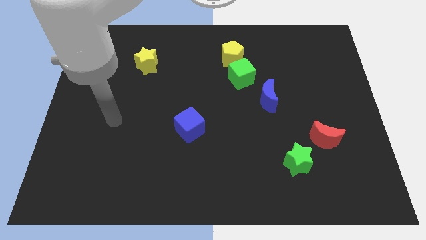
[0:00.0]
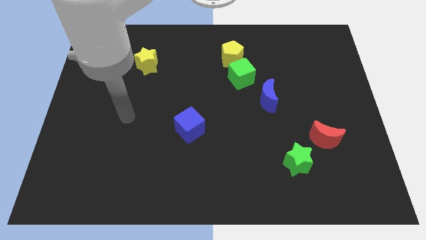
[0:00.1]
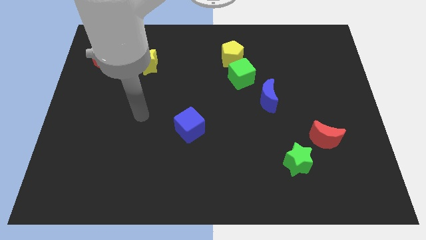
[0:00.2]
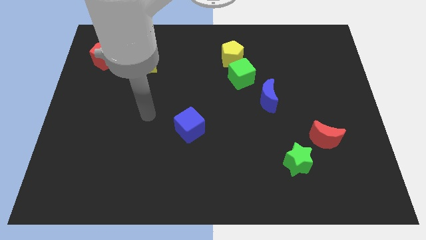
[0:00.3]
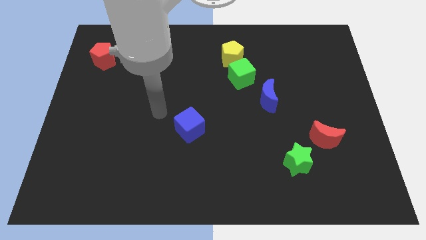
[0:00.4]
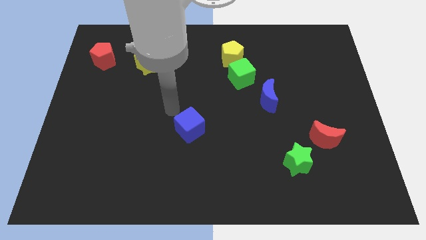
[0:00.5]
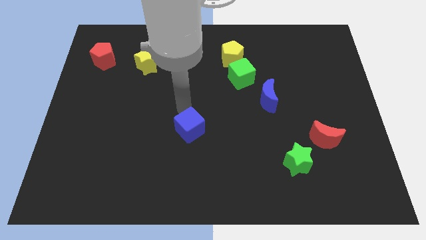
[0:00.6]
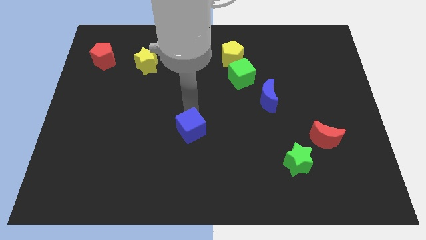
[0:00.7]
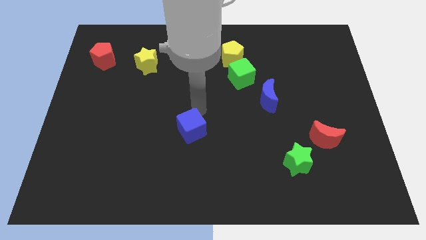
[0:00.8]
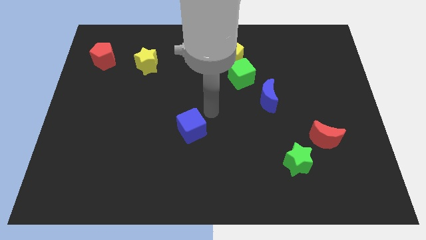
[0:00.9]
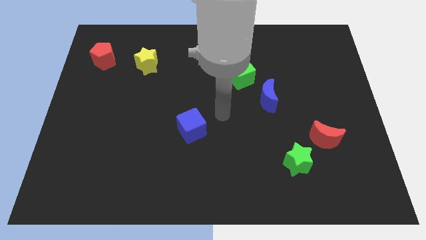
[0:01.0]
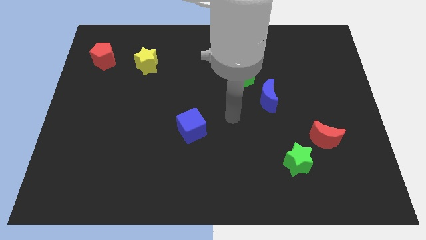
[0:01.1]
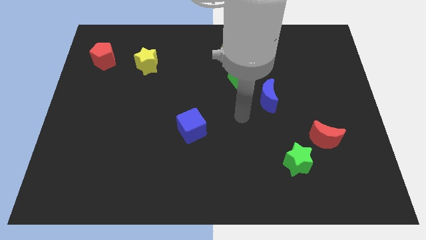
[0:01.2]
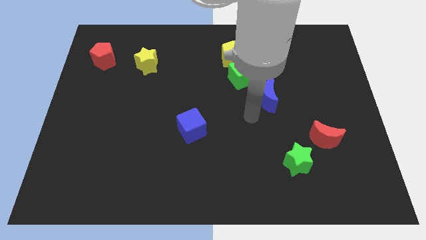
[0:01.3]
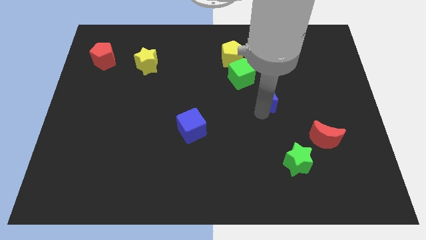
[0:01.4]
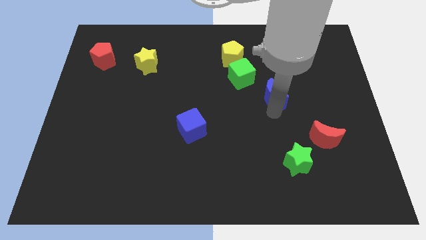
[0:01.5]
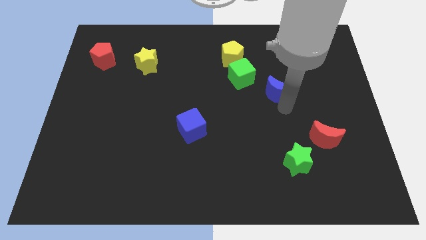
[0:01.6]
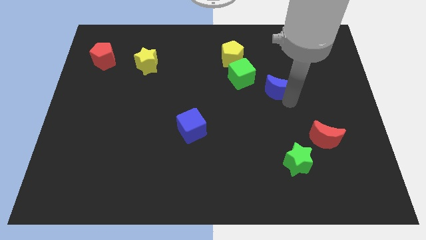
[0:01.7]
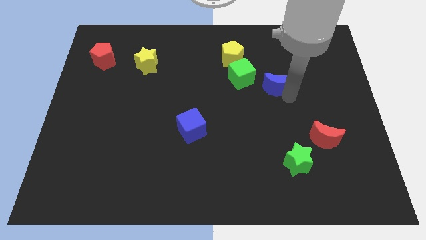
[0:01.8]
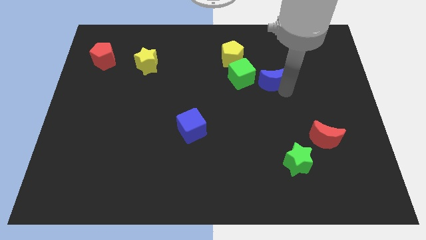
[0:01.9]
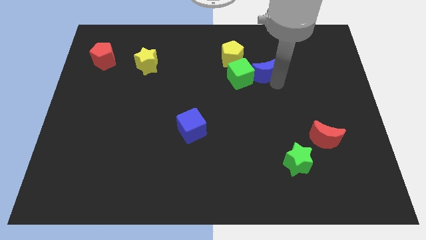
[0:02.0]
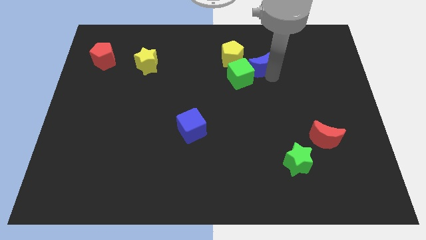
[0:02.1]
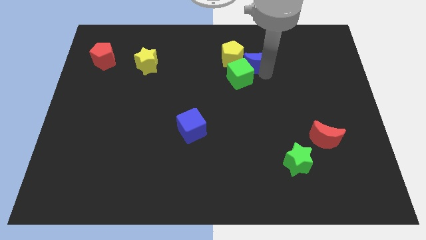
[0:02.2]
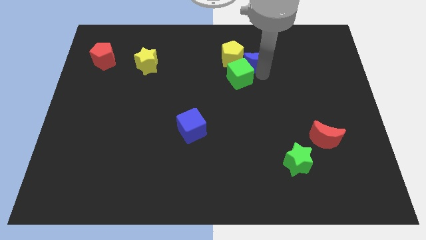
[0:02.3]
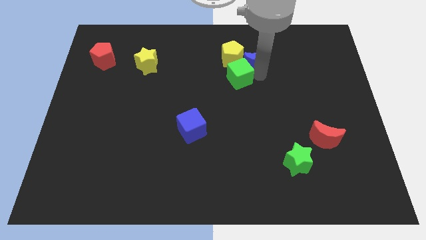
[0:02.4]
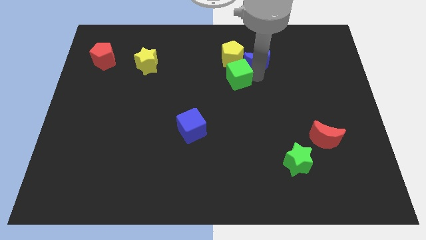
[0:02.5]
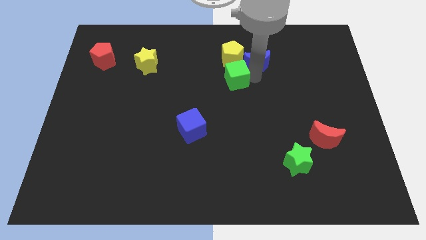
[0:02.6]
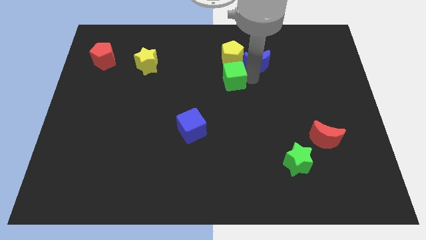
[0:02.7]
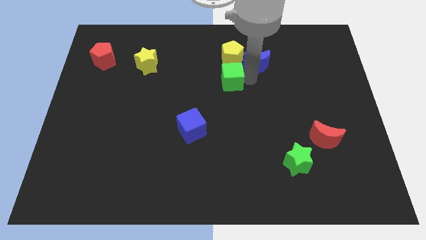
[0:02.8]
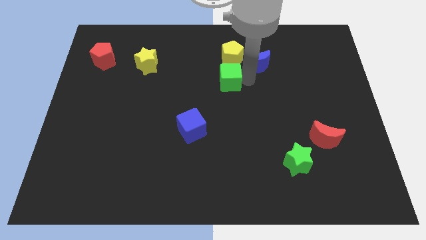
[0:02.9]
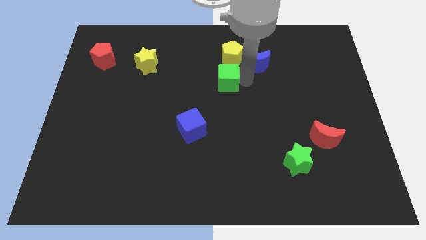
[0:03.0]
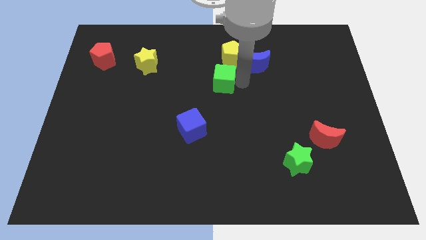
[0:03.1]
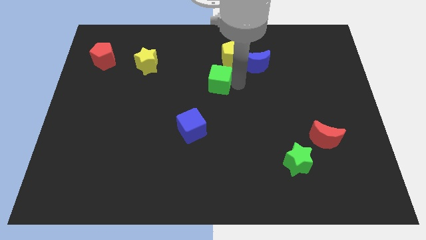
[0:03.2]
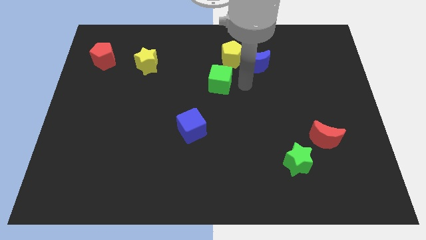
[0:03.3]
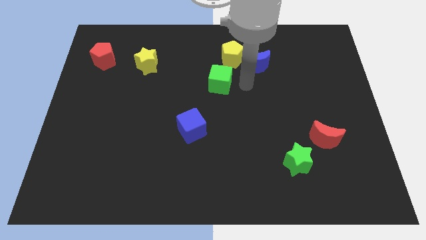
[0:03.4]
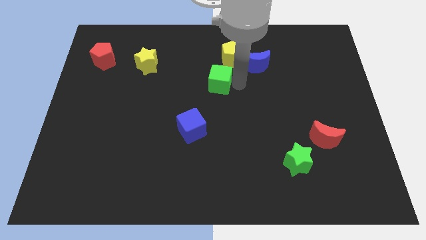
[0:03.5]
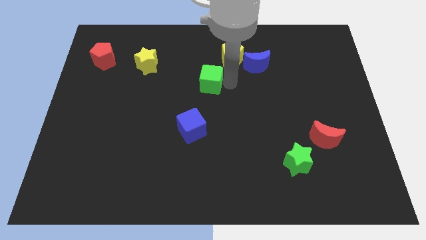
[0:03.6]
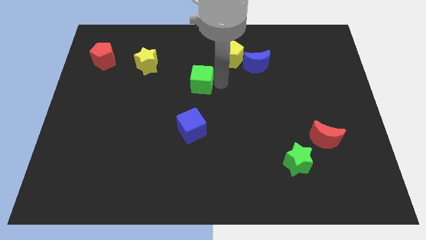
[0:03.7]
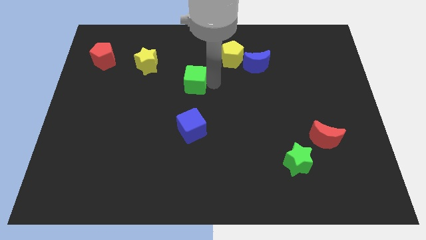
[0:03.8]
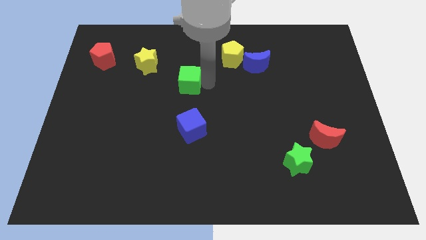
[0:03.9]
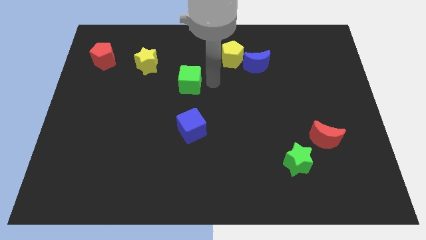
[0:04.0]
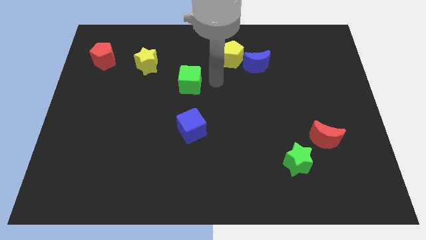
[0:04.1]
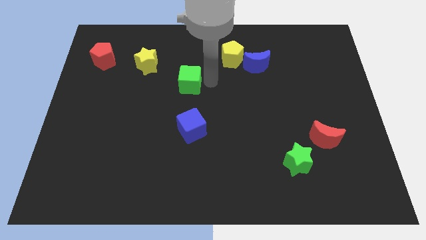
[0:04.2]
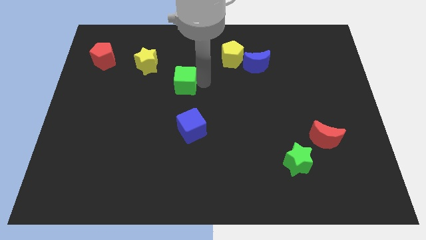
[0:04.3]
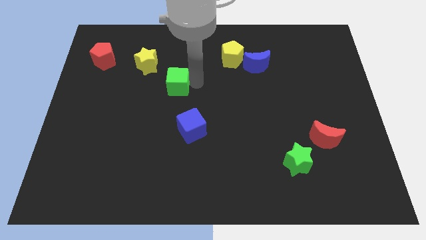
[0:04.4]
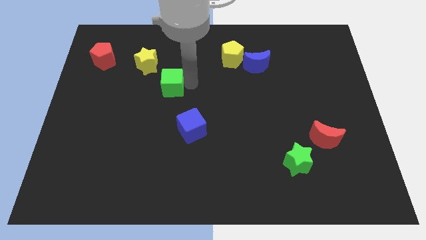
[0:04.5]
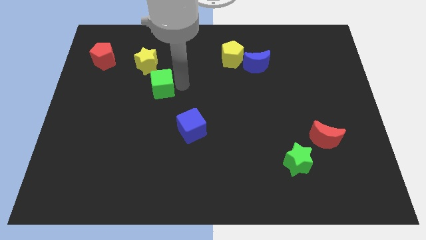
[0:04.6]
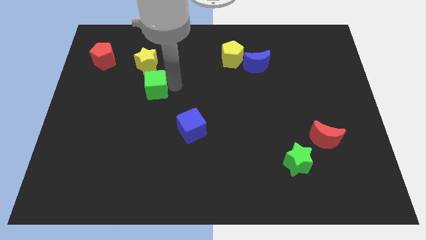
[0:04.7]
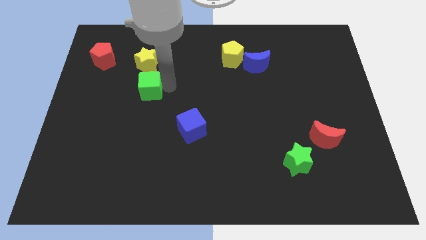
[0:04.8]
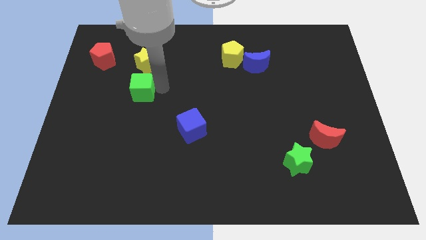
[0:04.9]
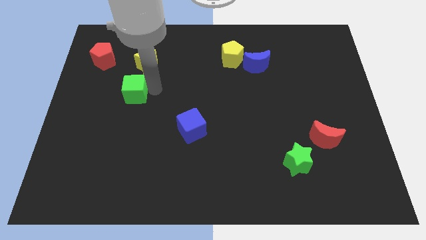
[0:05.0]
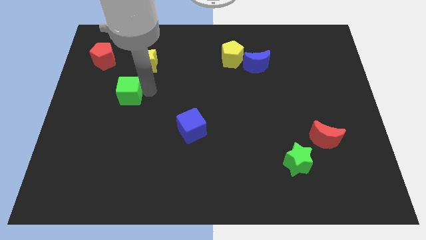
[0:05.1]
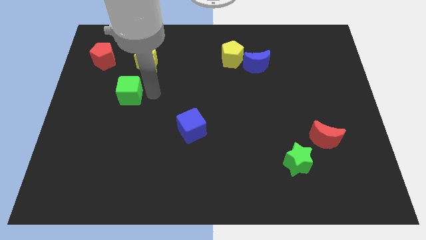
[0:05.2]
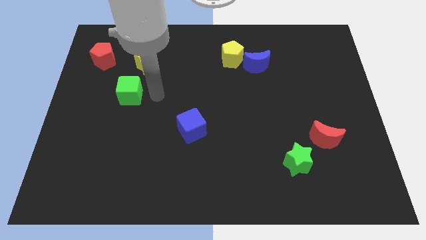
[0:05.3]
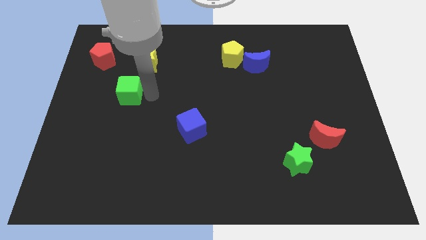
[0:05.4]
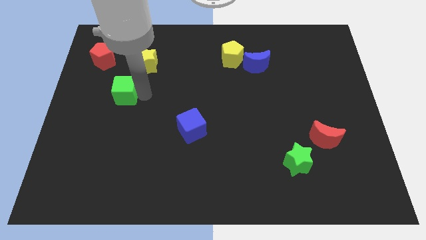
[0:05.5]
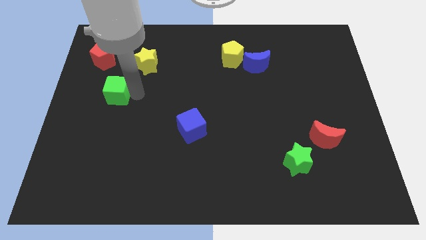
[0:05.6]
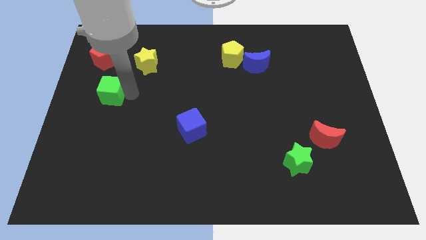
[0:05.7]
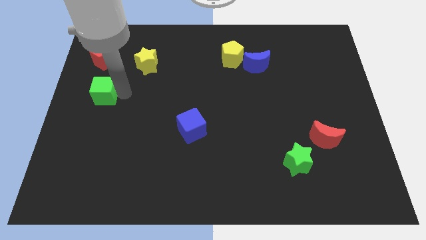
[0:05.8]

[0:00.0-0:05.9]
put the green cube to the center left
